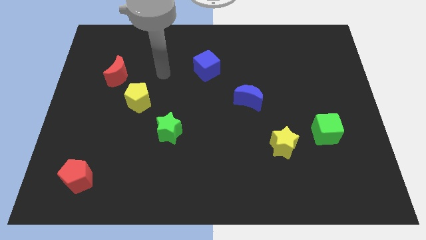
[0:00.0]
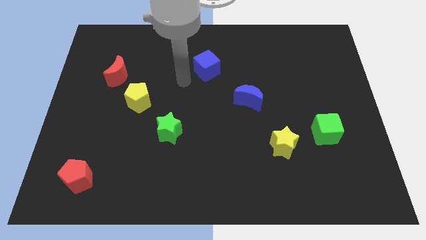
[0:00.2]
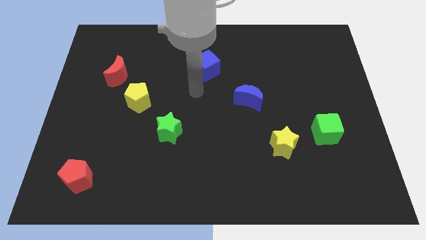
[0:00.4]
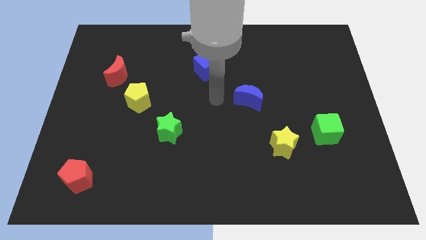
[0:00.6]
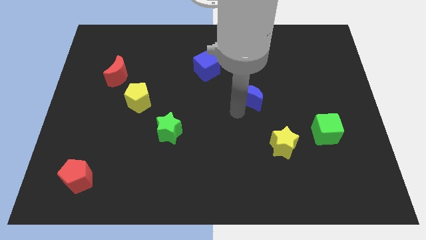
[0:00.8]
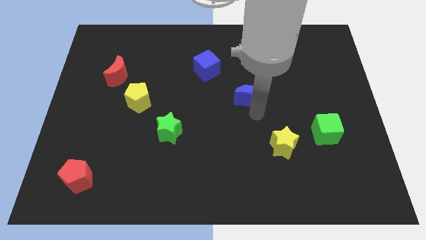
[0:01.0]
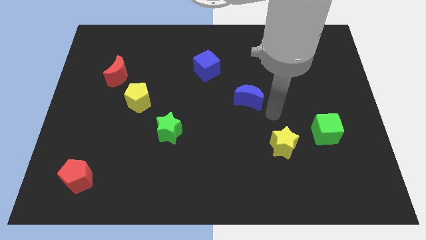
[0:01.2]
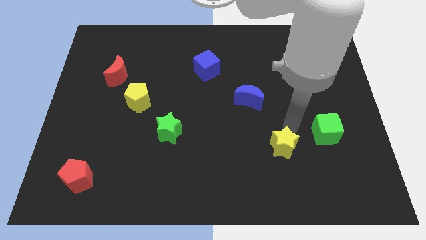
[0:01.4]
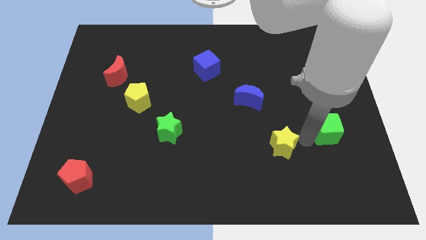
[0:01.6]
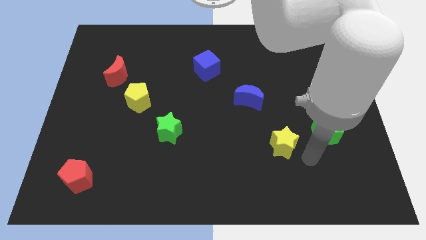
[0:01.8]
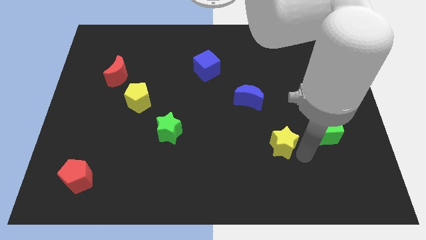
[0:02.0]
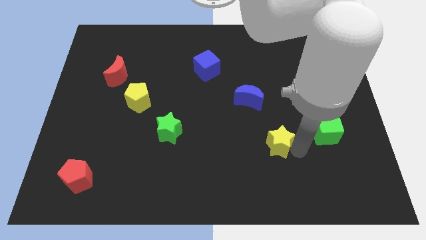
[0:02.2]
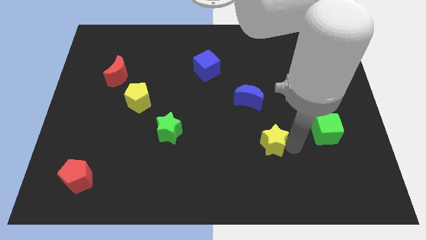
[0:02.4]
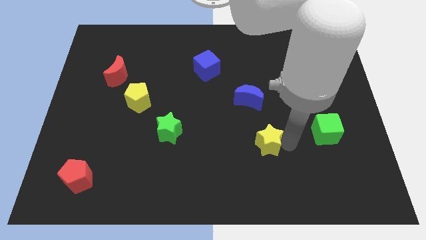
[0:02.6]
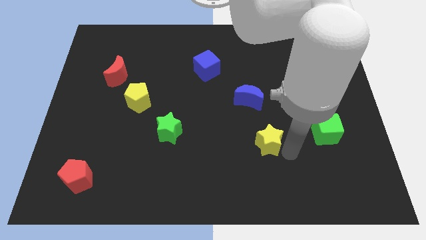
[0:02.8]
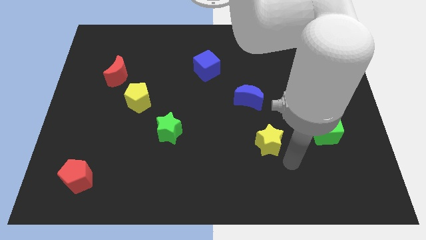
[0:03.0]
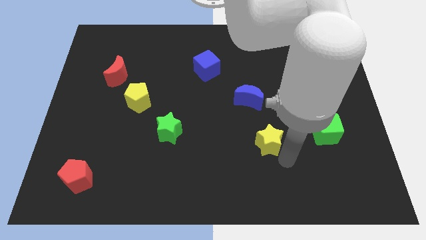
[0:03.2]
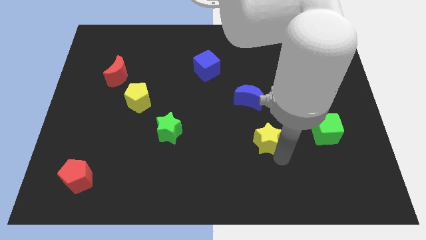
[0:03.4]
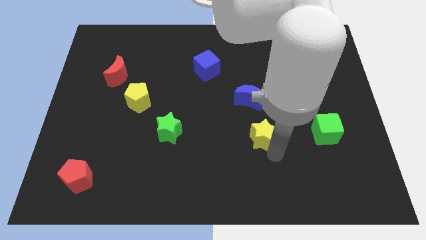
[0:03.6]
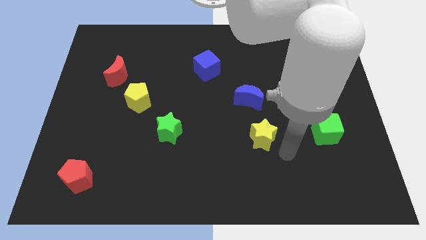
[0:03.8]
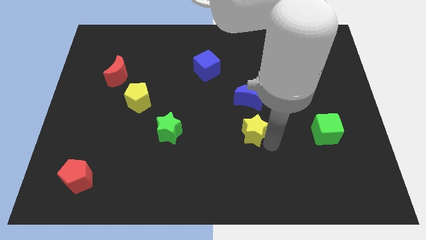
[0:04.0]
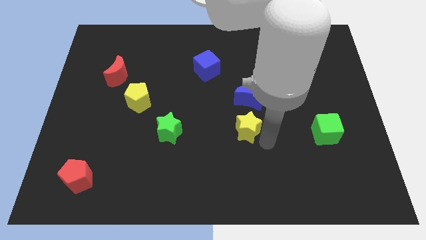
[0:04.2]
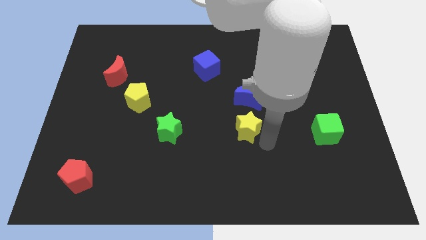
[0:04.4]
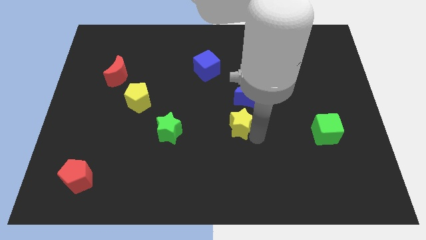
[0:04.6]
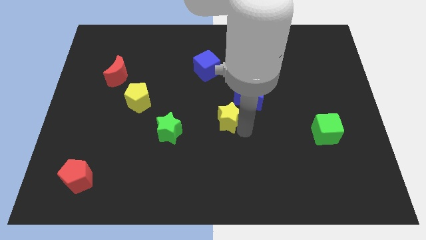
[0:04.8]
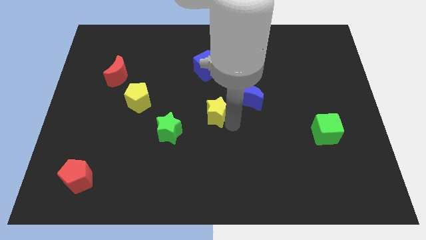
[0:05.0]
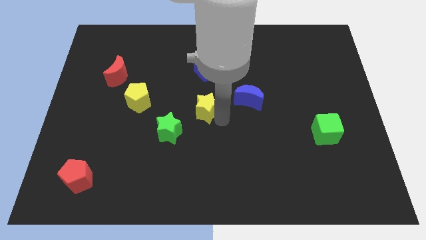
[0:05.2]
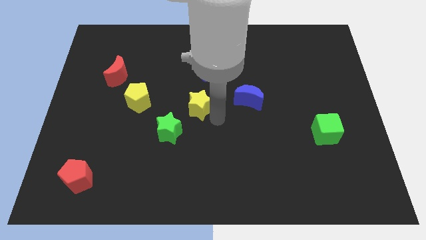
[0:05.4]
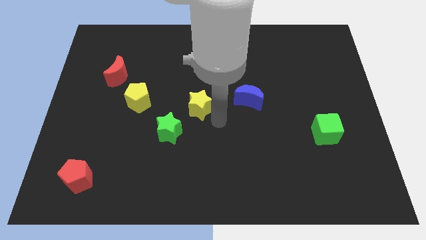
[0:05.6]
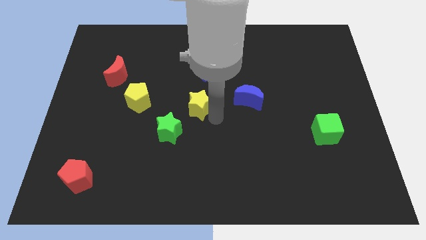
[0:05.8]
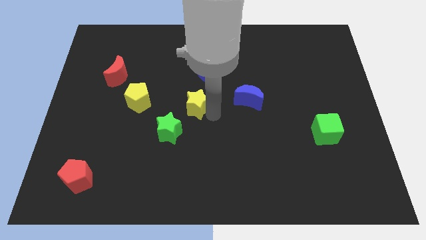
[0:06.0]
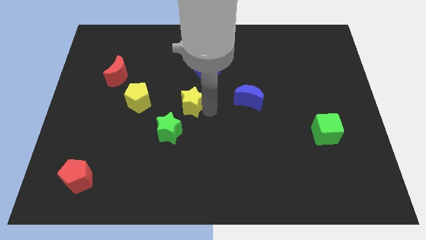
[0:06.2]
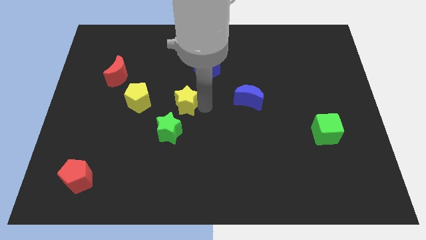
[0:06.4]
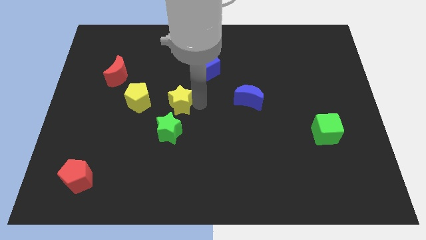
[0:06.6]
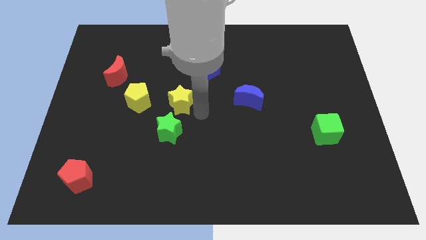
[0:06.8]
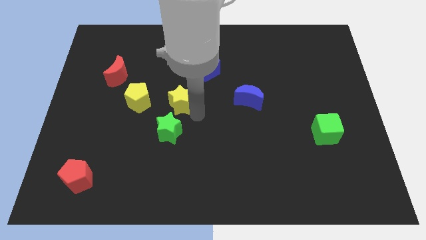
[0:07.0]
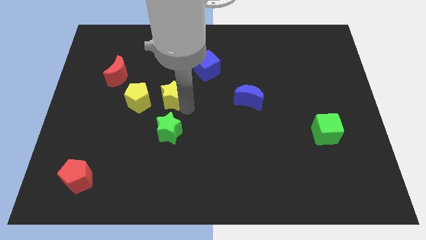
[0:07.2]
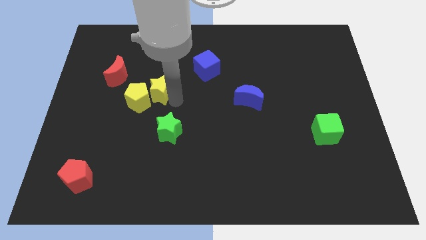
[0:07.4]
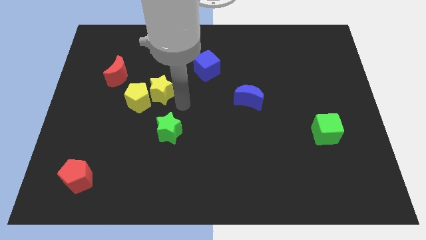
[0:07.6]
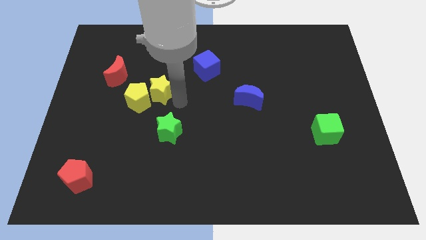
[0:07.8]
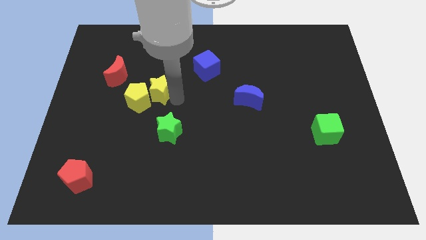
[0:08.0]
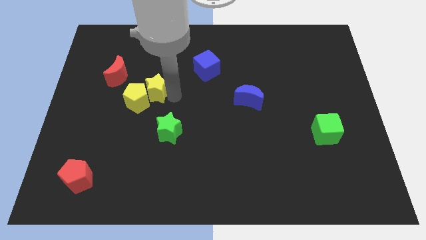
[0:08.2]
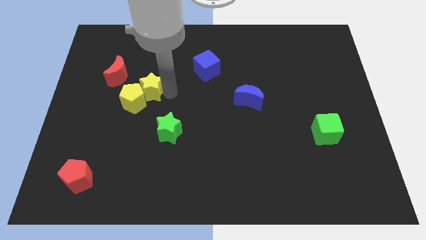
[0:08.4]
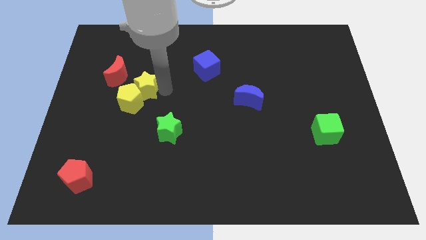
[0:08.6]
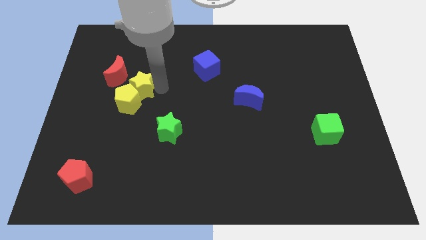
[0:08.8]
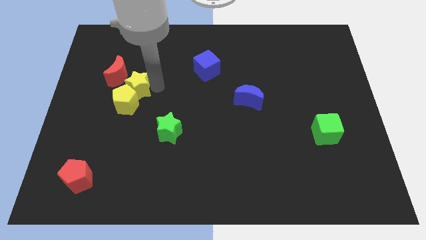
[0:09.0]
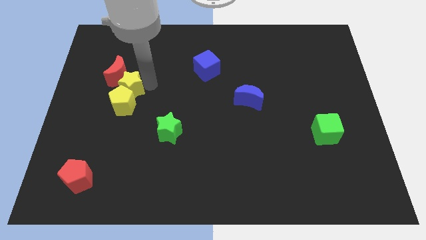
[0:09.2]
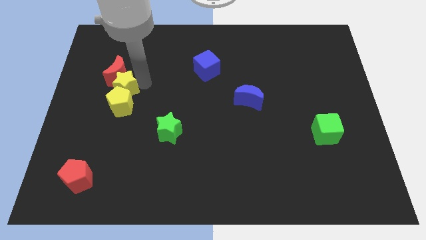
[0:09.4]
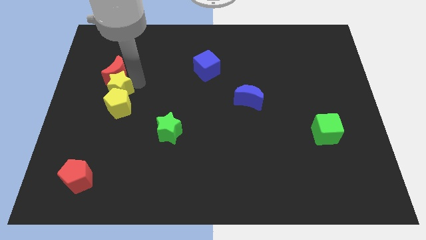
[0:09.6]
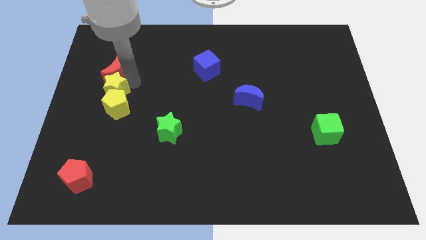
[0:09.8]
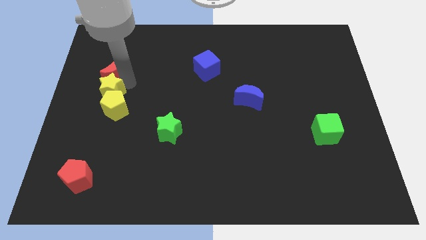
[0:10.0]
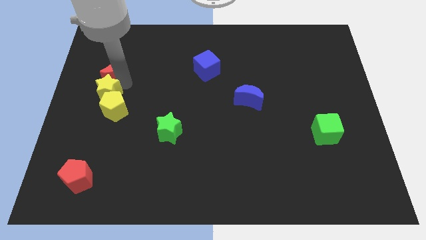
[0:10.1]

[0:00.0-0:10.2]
move the yellow star to the center left

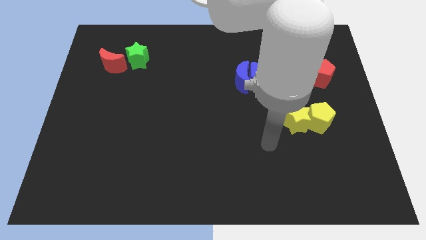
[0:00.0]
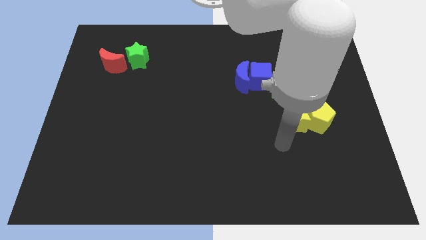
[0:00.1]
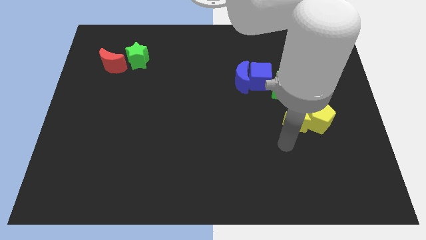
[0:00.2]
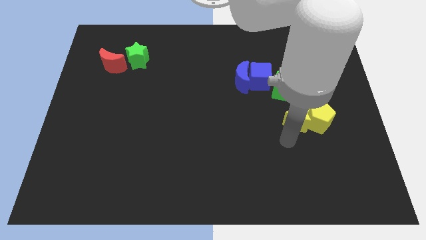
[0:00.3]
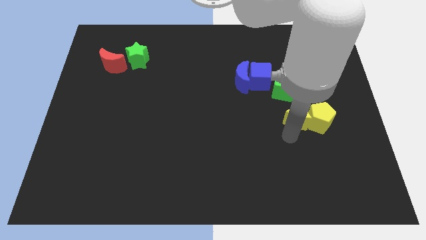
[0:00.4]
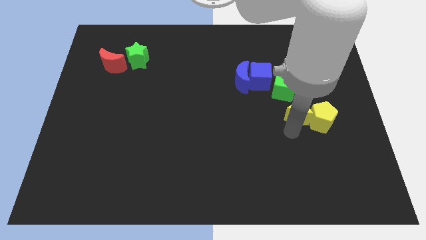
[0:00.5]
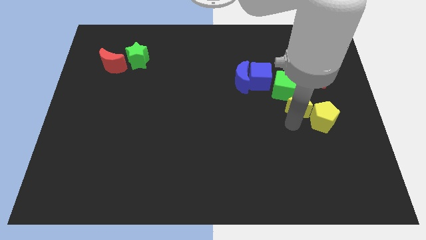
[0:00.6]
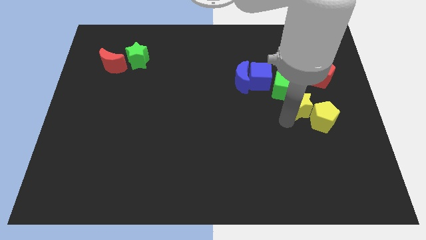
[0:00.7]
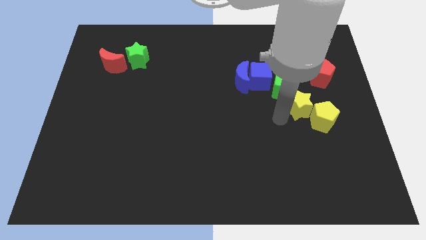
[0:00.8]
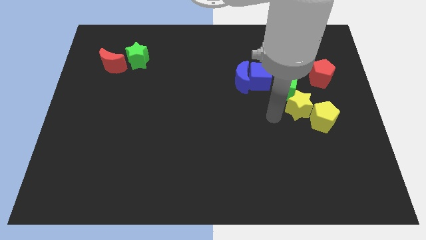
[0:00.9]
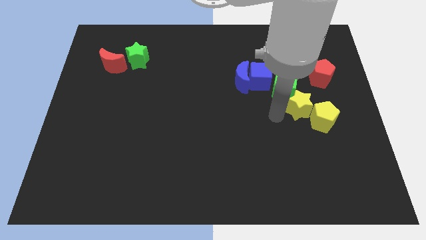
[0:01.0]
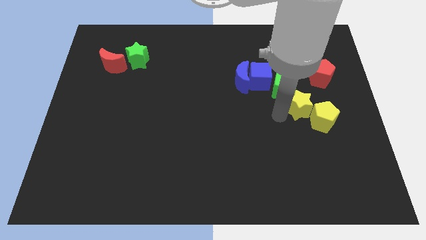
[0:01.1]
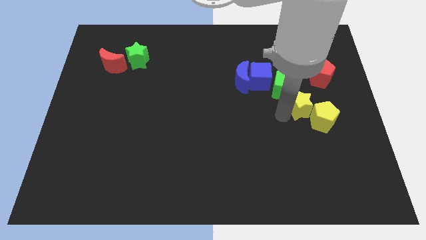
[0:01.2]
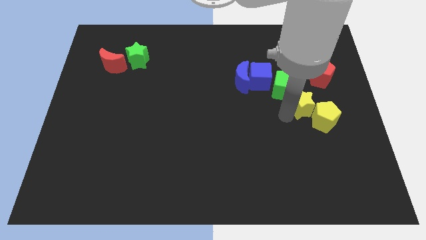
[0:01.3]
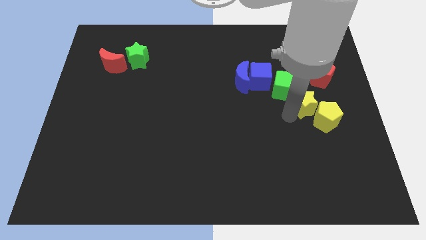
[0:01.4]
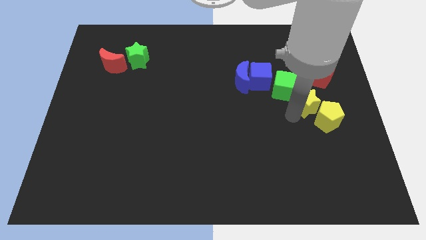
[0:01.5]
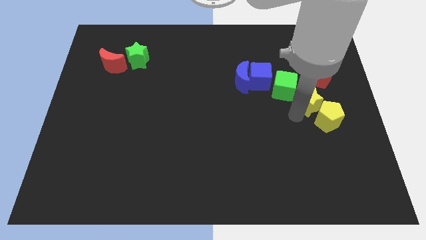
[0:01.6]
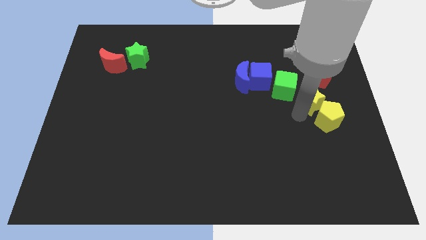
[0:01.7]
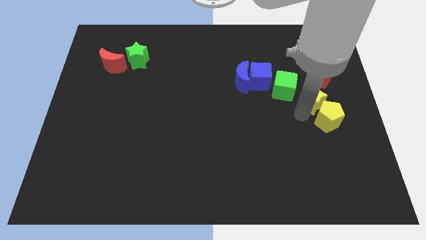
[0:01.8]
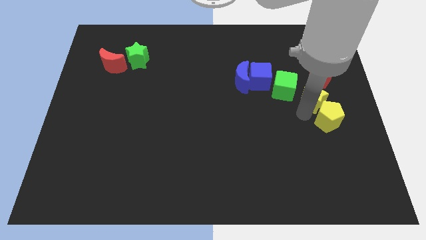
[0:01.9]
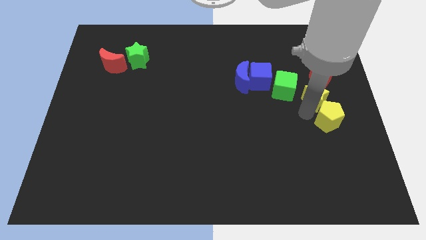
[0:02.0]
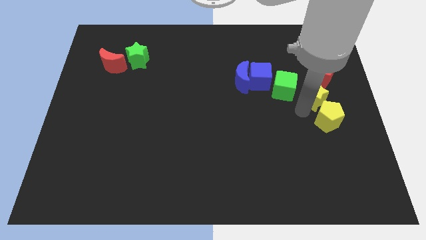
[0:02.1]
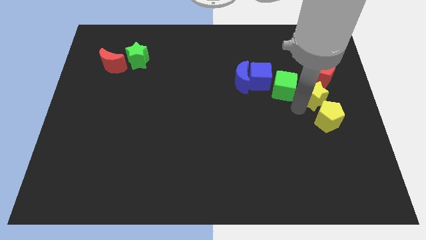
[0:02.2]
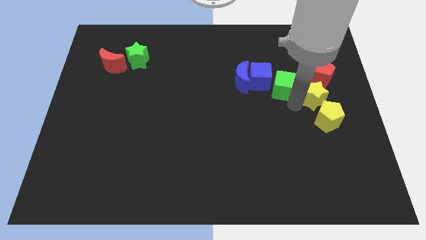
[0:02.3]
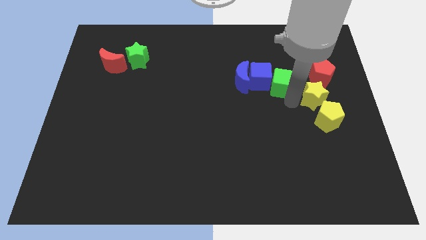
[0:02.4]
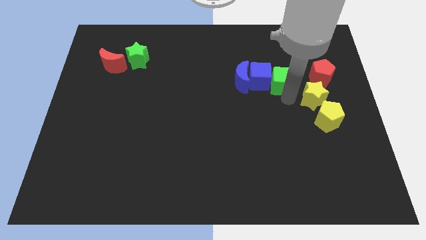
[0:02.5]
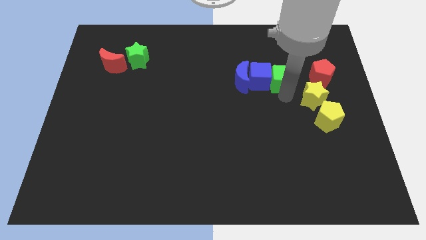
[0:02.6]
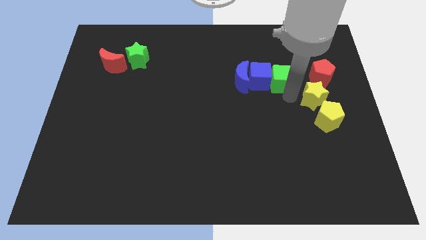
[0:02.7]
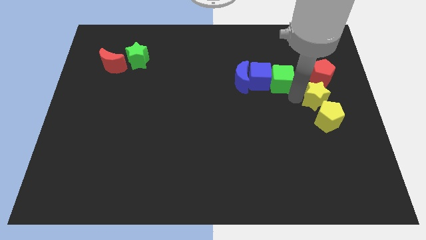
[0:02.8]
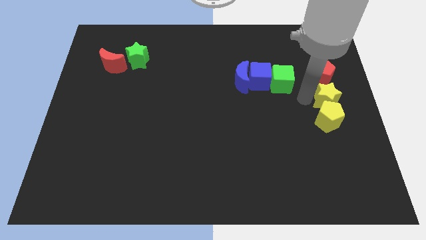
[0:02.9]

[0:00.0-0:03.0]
move the yellow star to the right side of the board
